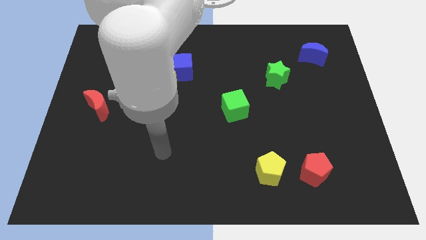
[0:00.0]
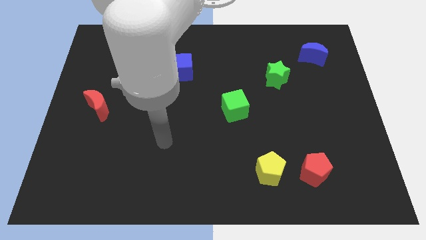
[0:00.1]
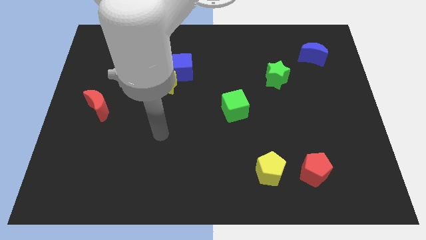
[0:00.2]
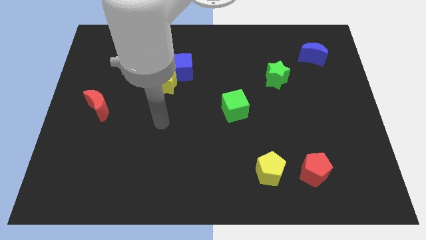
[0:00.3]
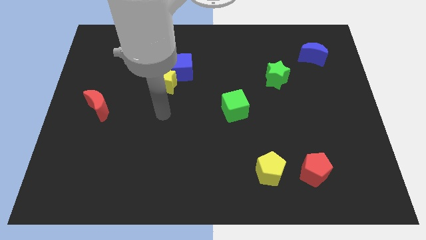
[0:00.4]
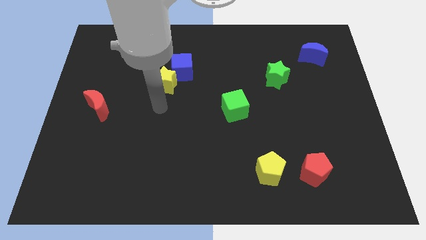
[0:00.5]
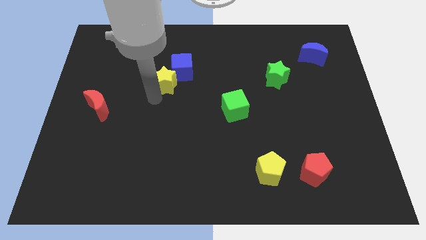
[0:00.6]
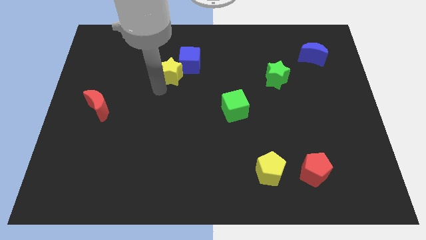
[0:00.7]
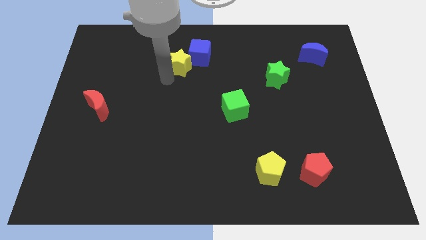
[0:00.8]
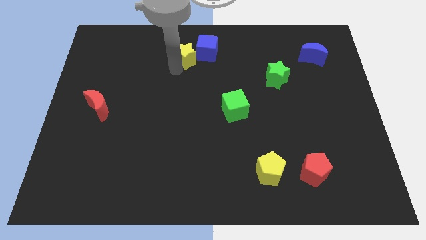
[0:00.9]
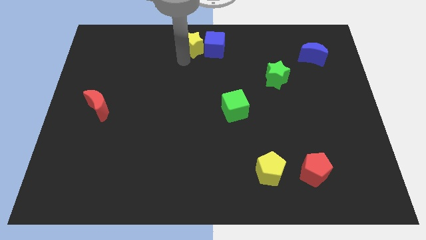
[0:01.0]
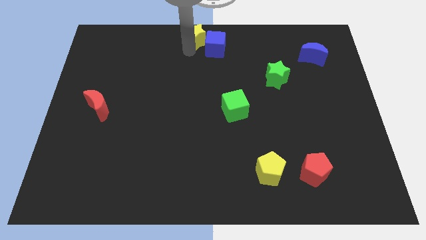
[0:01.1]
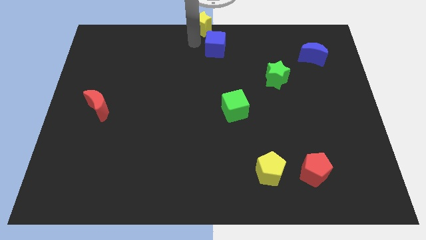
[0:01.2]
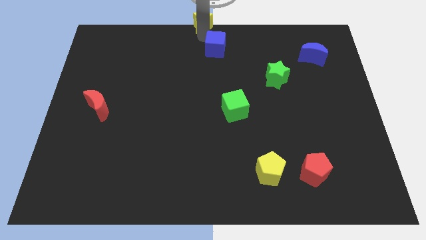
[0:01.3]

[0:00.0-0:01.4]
move the blue cube away from the yellow star

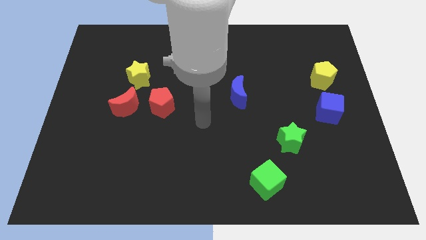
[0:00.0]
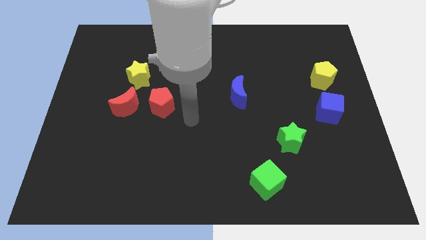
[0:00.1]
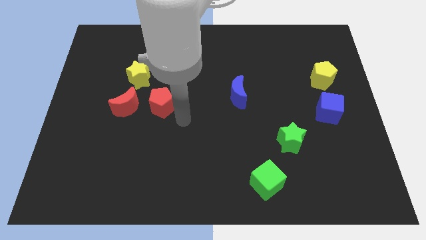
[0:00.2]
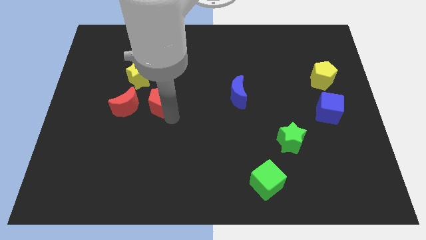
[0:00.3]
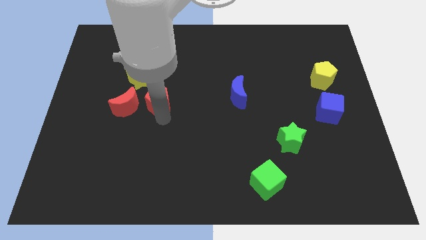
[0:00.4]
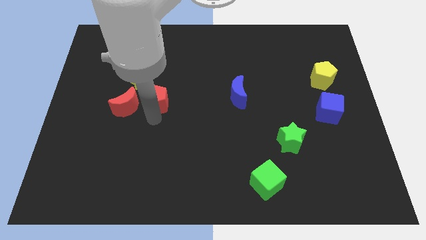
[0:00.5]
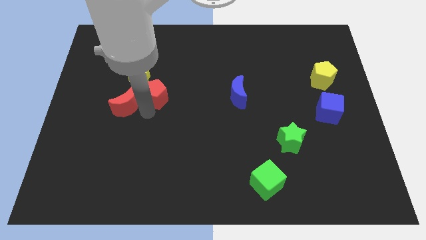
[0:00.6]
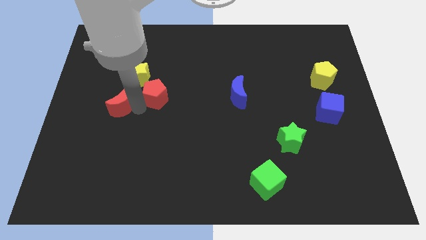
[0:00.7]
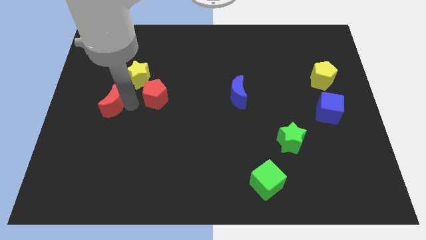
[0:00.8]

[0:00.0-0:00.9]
move the red pentagon away from the red moon

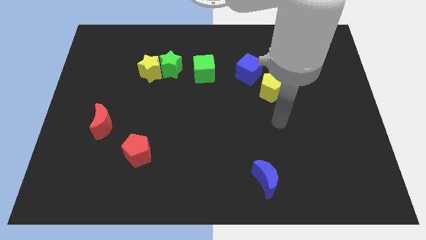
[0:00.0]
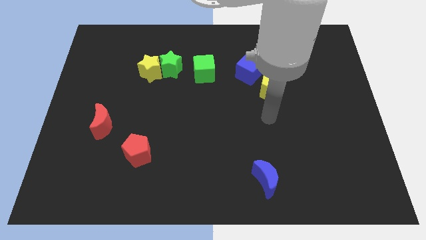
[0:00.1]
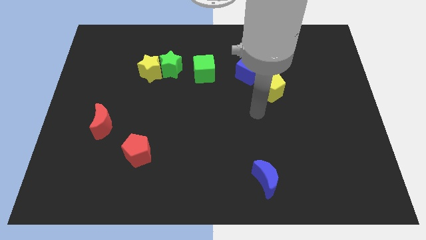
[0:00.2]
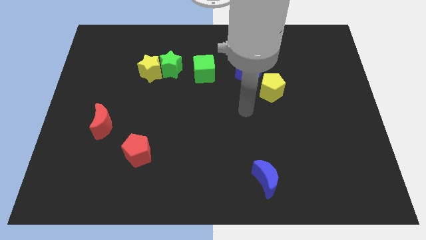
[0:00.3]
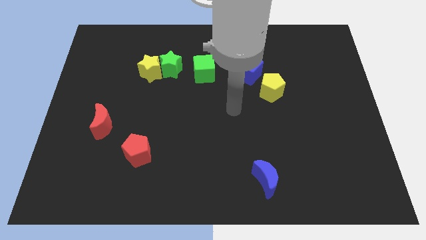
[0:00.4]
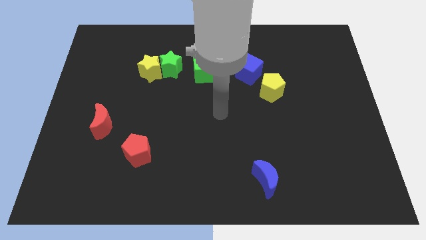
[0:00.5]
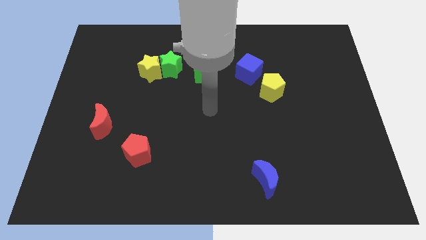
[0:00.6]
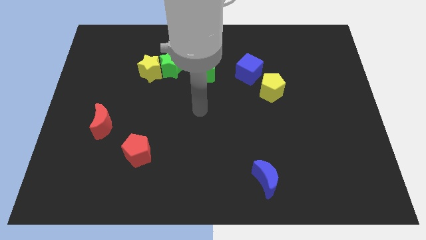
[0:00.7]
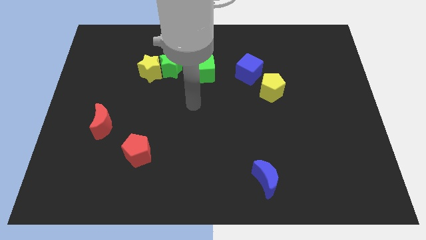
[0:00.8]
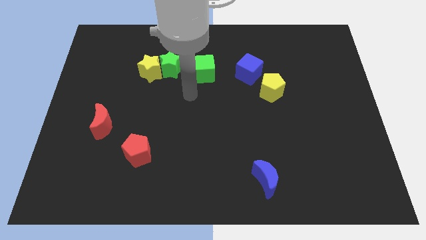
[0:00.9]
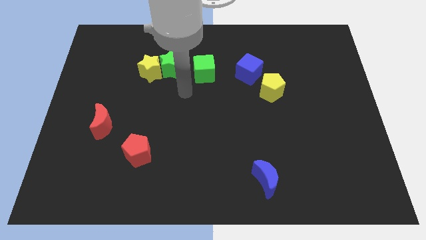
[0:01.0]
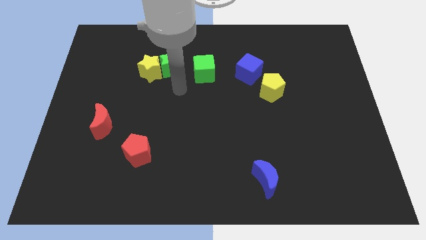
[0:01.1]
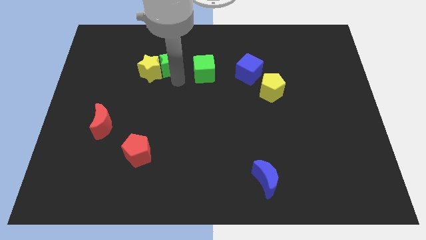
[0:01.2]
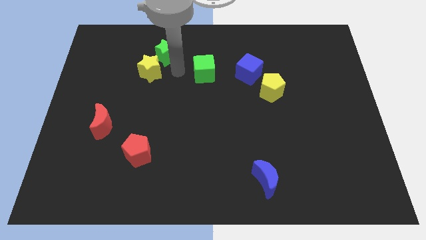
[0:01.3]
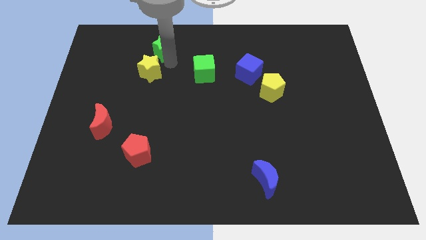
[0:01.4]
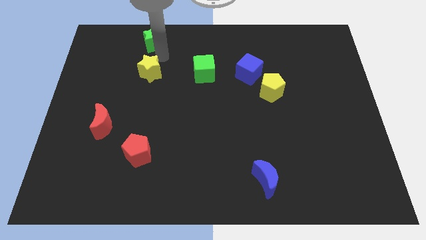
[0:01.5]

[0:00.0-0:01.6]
move the yellow star away from the green star

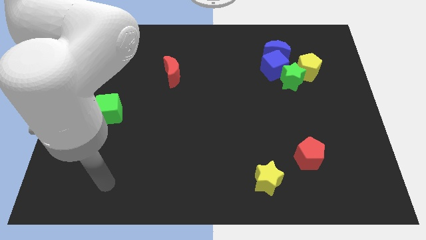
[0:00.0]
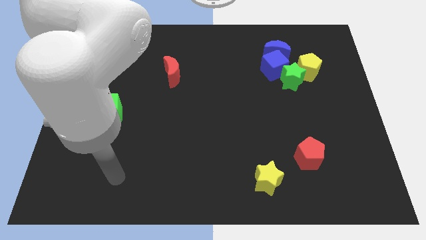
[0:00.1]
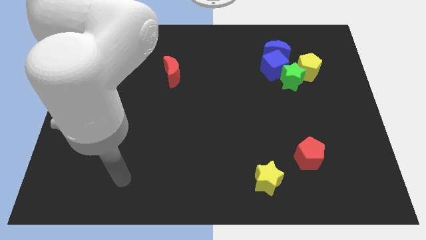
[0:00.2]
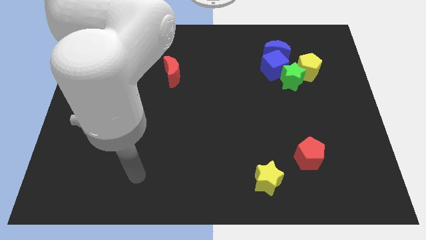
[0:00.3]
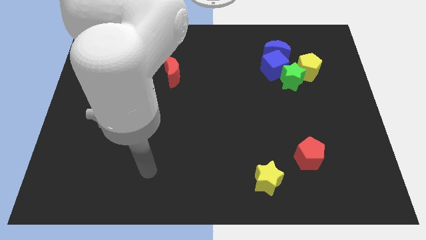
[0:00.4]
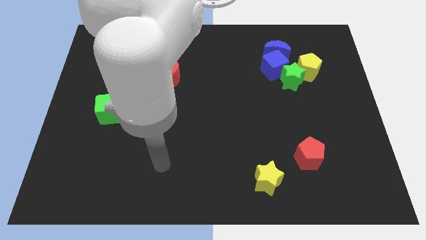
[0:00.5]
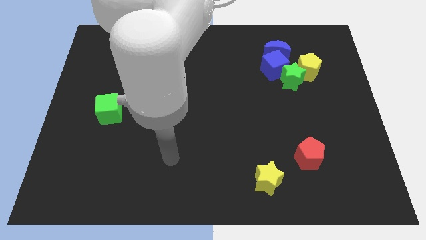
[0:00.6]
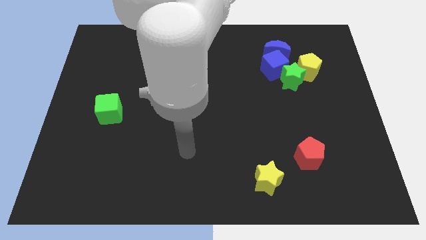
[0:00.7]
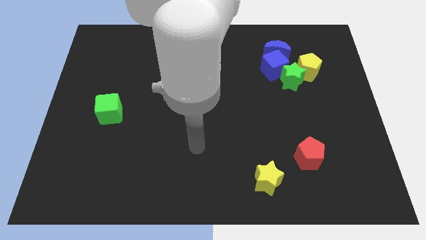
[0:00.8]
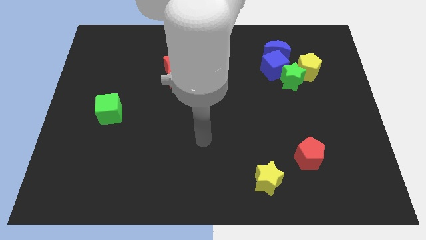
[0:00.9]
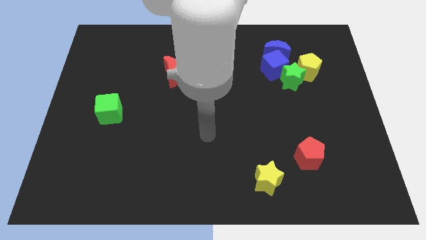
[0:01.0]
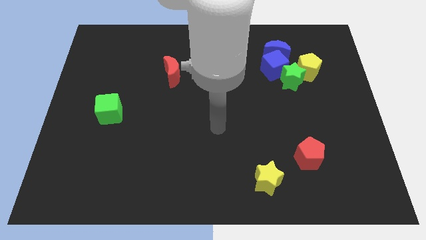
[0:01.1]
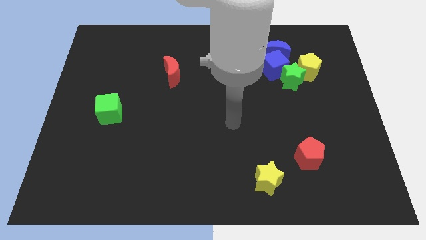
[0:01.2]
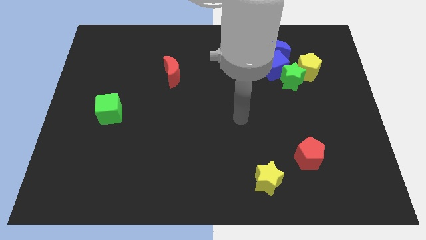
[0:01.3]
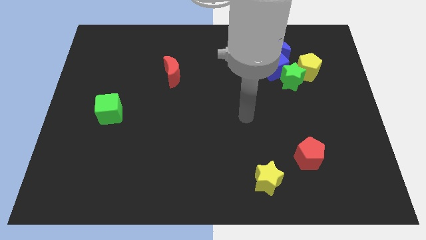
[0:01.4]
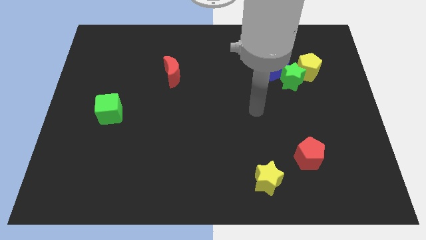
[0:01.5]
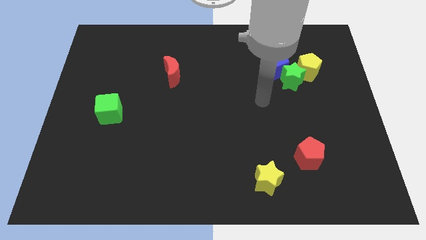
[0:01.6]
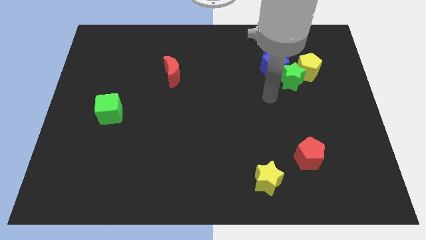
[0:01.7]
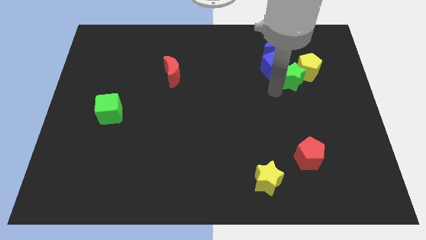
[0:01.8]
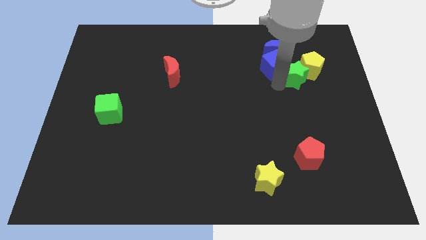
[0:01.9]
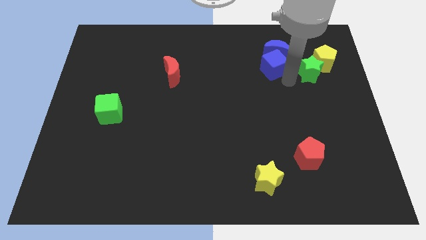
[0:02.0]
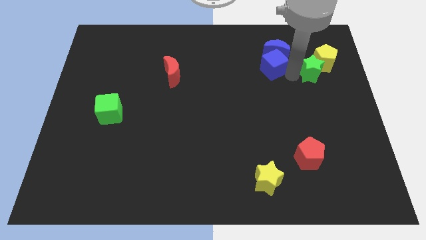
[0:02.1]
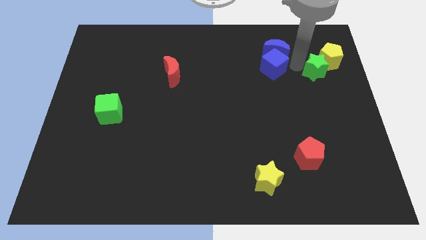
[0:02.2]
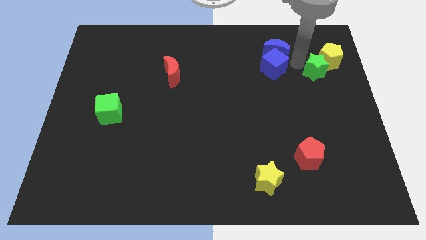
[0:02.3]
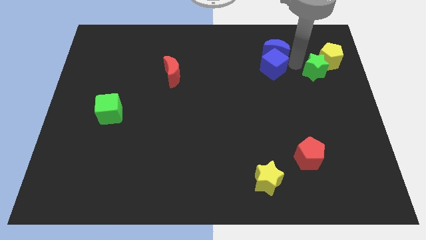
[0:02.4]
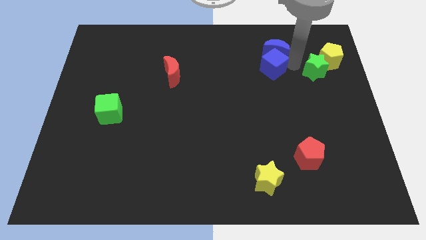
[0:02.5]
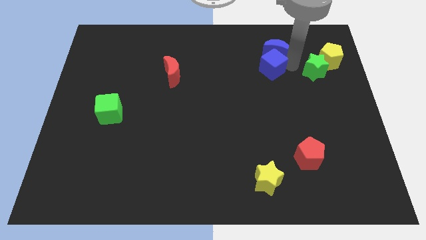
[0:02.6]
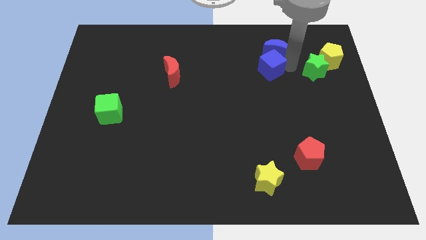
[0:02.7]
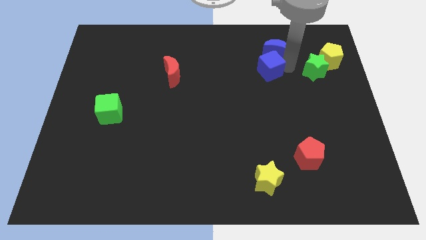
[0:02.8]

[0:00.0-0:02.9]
pull the blue cube apart from the blue moon, green star, and yellow pentagon

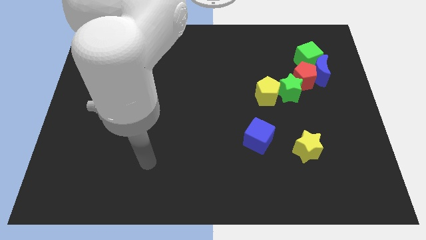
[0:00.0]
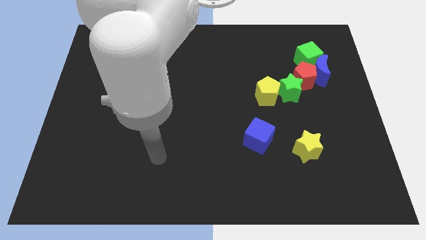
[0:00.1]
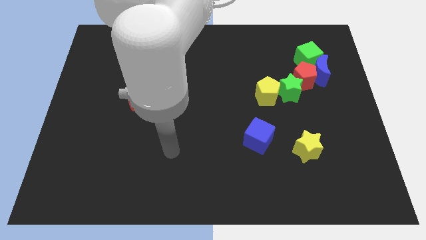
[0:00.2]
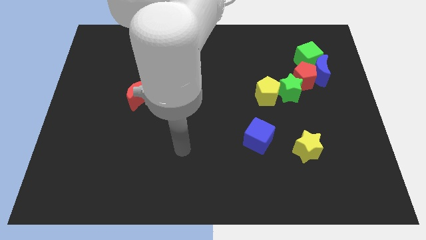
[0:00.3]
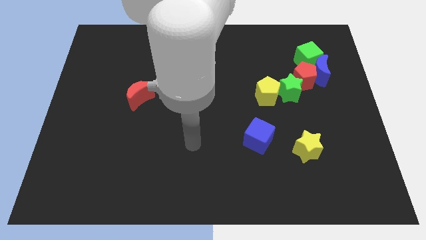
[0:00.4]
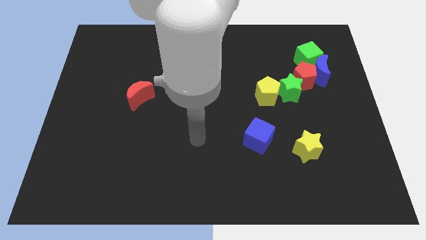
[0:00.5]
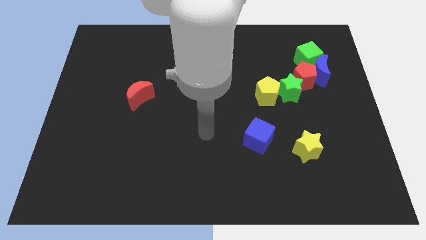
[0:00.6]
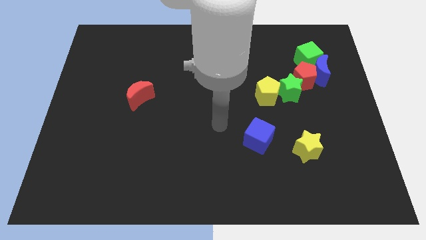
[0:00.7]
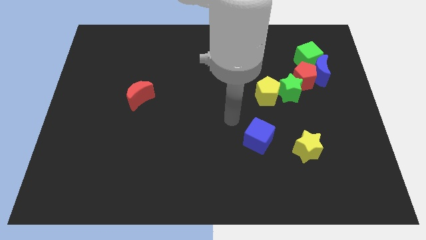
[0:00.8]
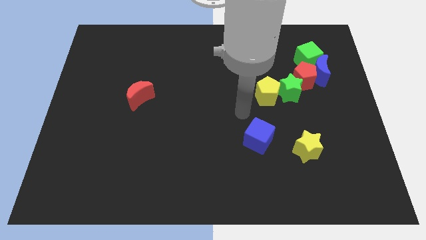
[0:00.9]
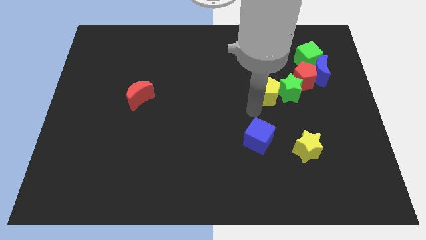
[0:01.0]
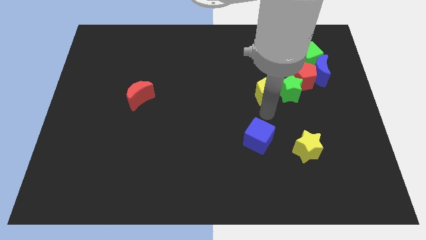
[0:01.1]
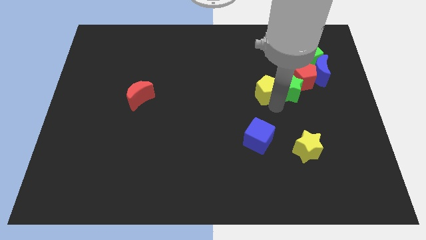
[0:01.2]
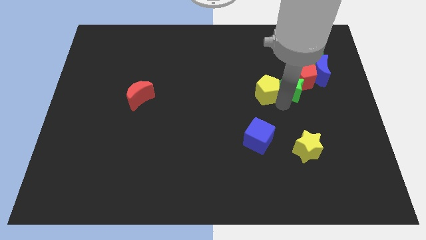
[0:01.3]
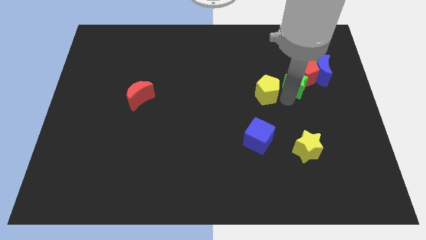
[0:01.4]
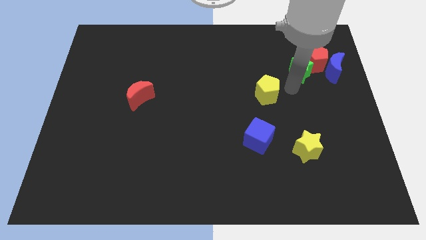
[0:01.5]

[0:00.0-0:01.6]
pull the yellow pentagon apart from the green star

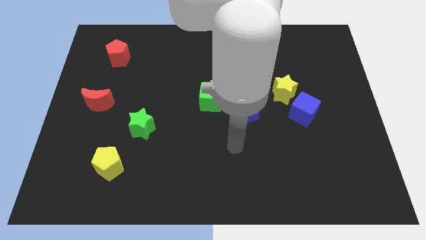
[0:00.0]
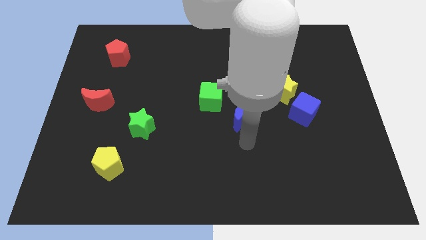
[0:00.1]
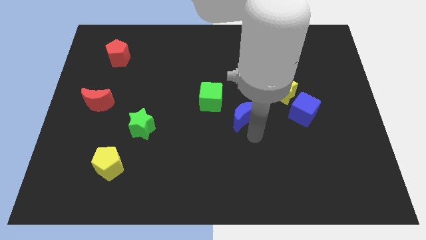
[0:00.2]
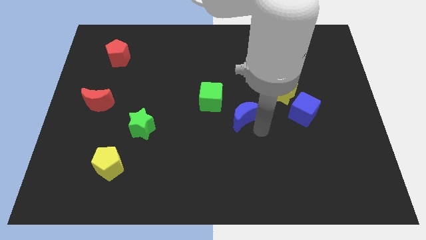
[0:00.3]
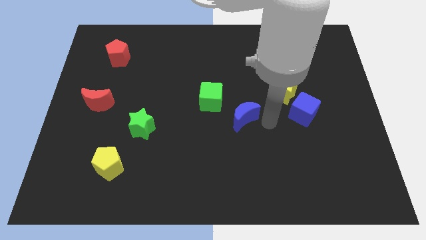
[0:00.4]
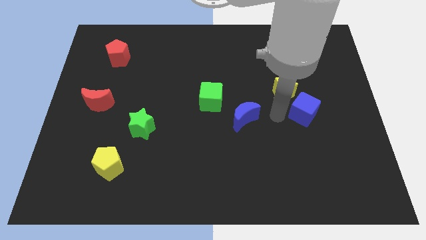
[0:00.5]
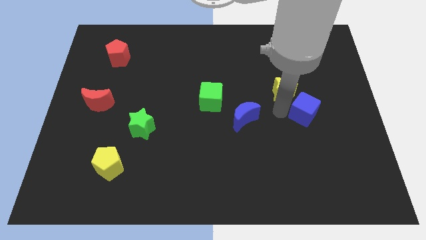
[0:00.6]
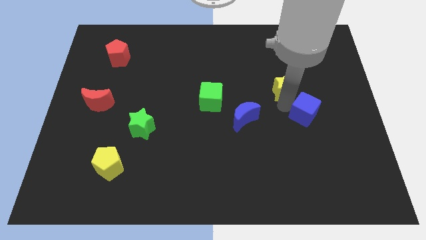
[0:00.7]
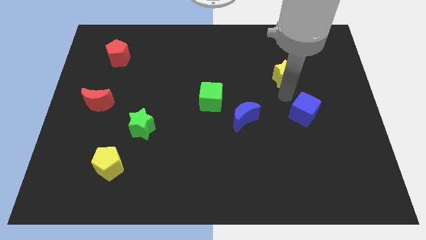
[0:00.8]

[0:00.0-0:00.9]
separate the blue cube from the yellow star
